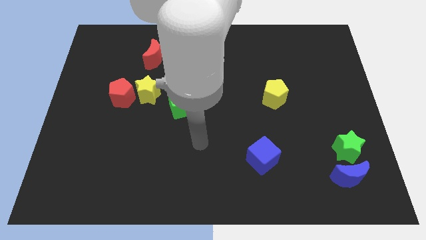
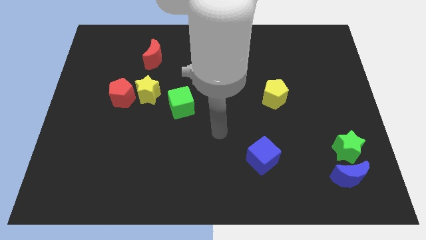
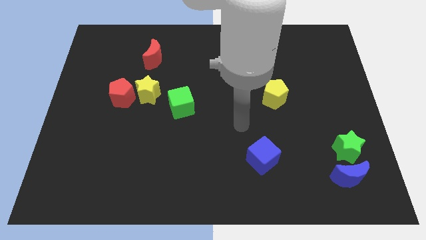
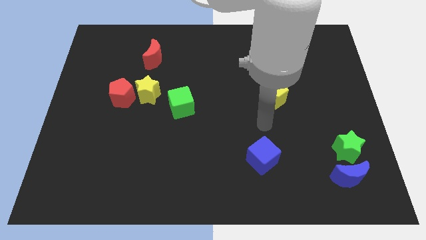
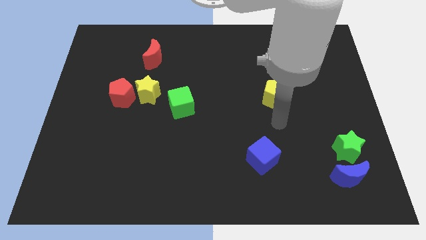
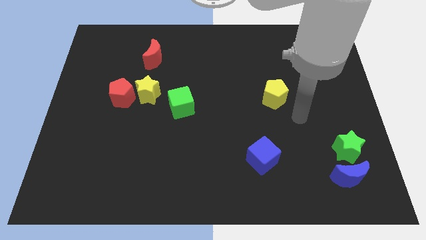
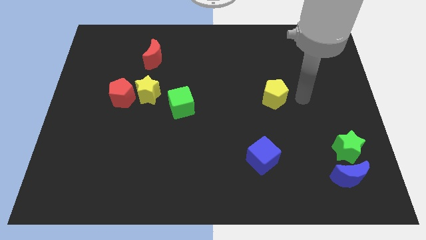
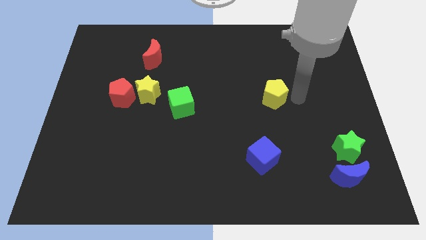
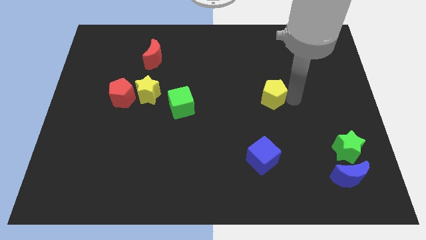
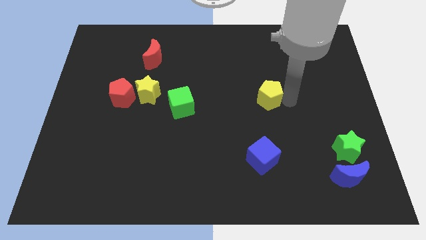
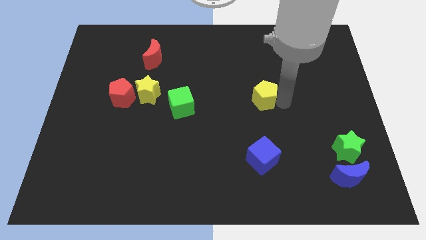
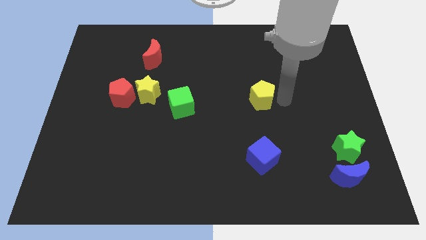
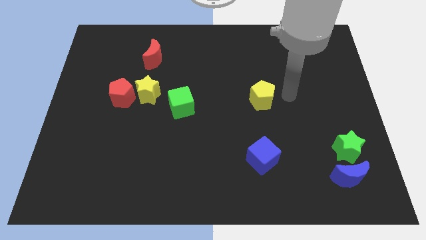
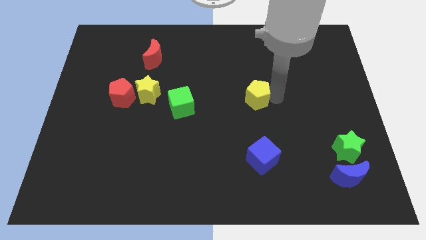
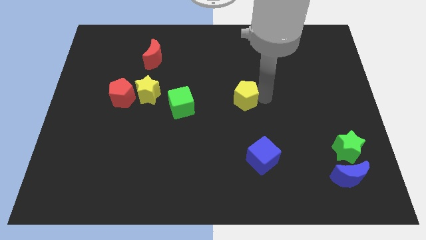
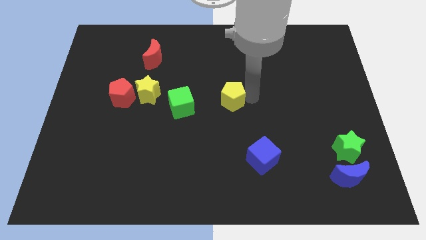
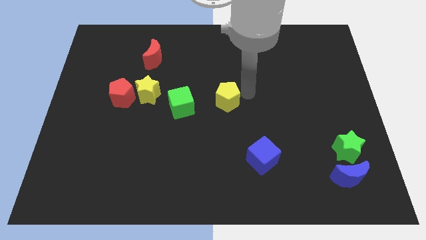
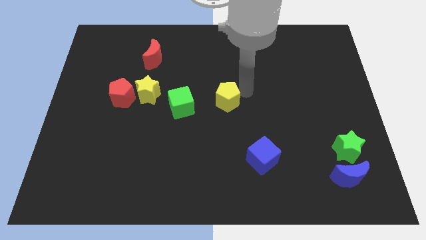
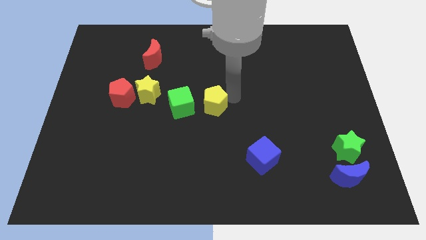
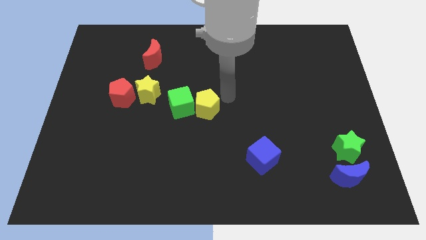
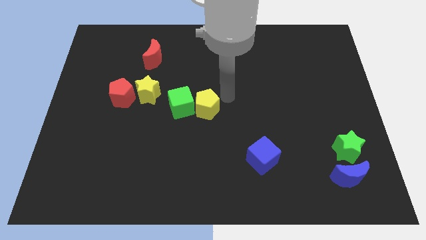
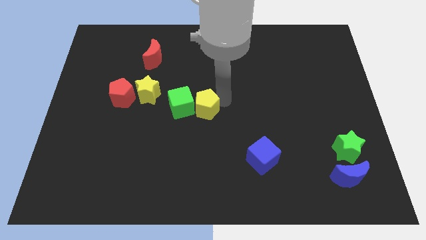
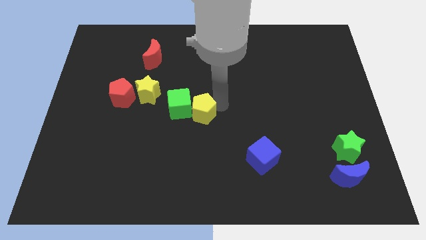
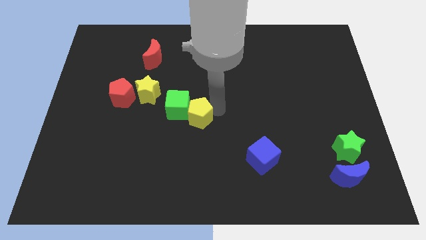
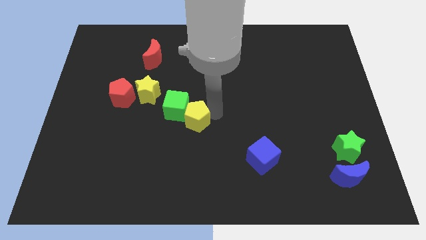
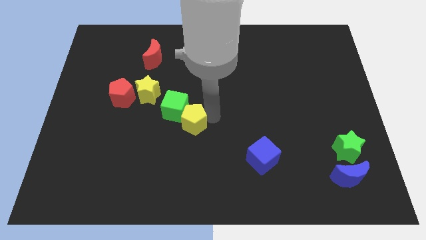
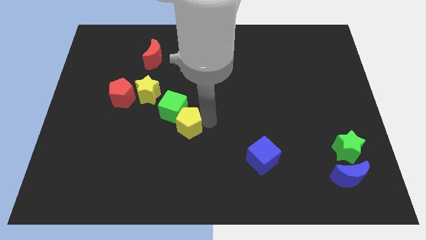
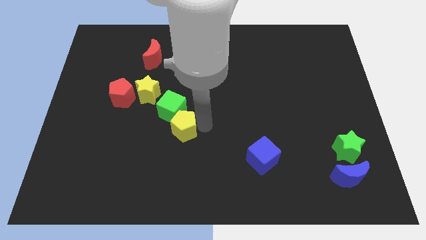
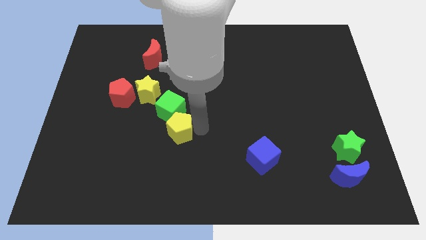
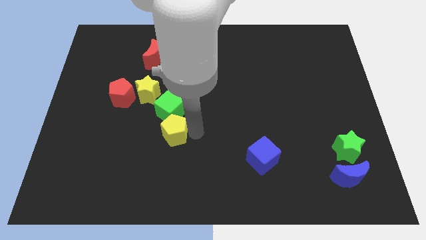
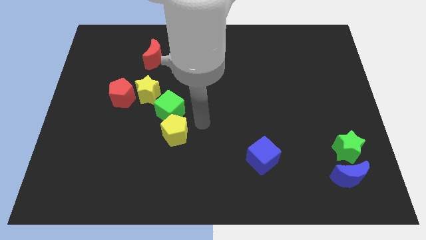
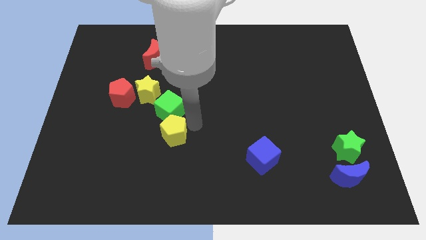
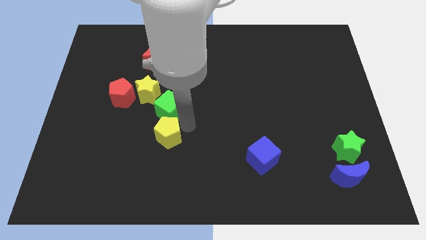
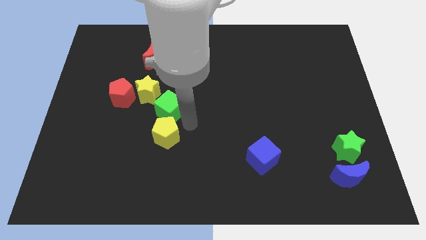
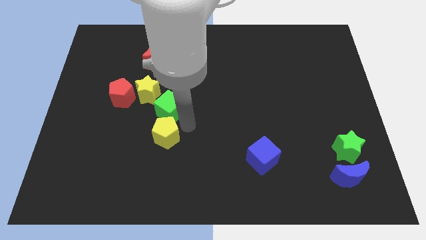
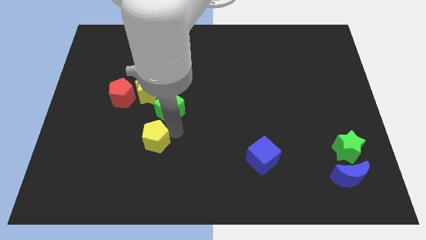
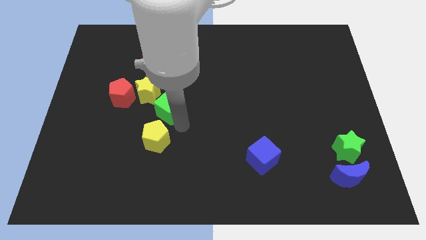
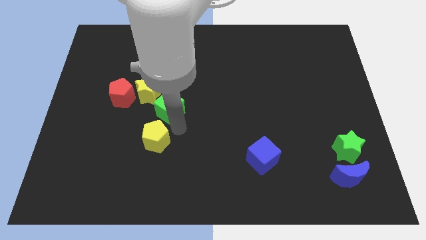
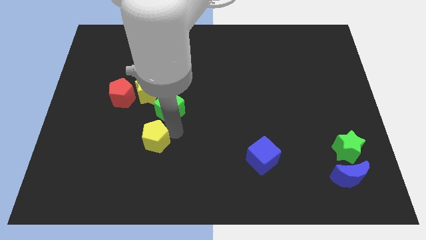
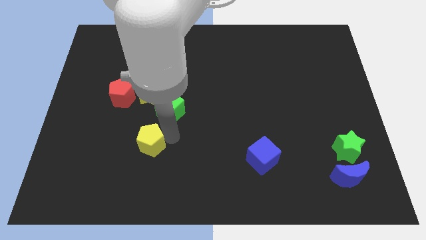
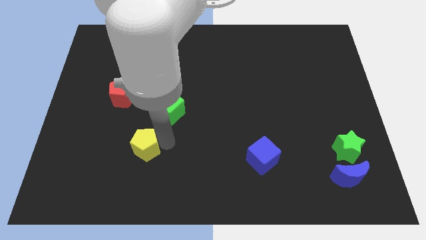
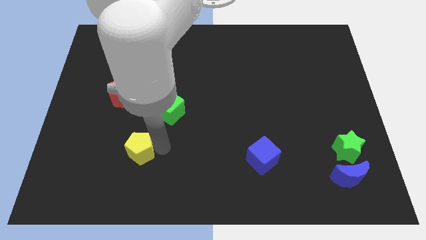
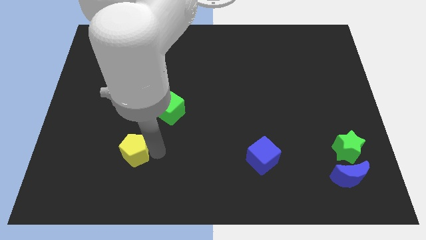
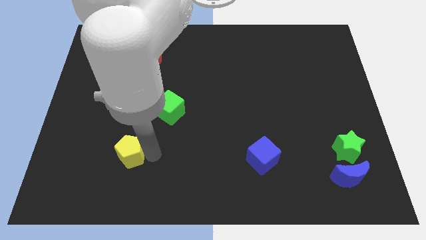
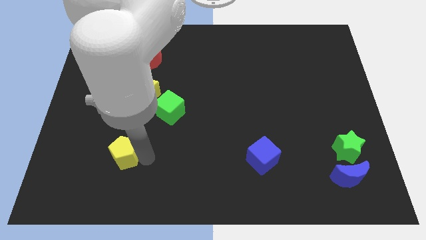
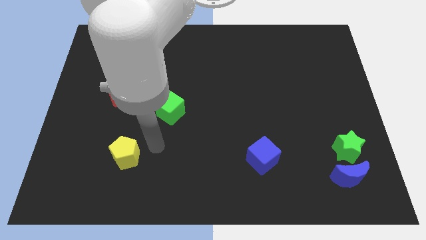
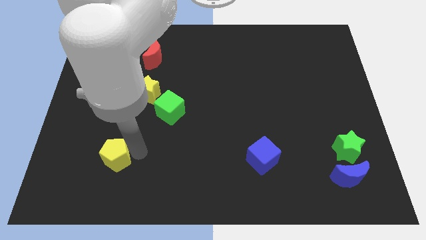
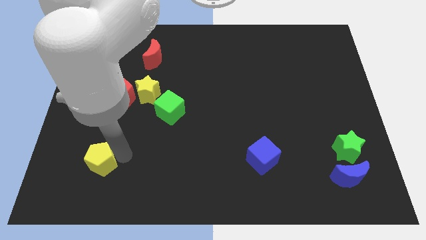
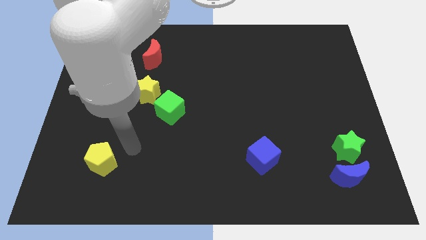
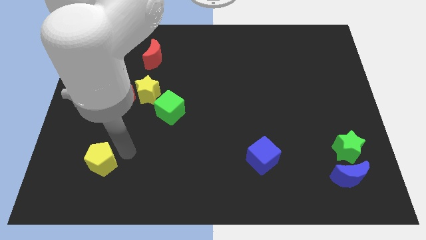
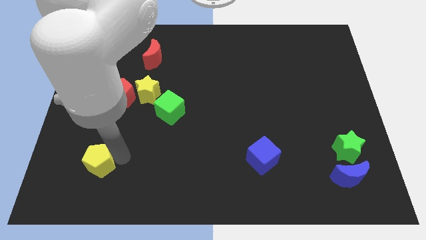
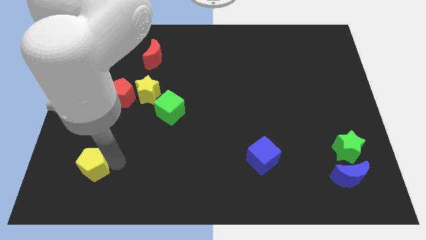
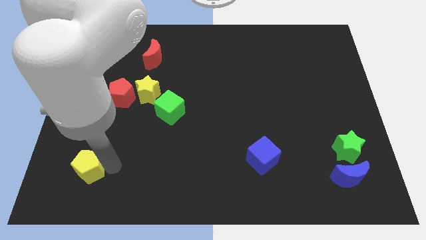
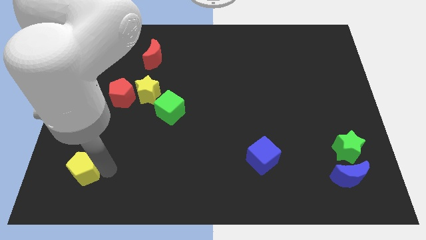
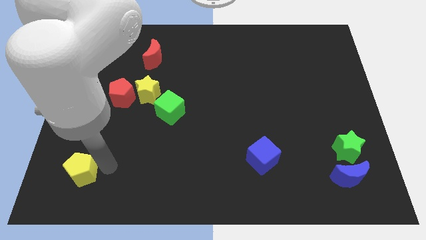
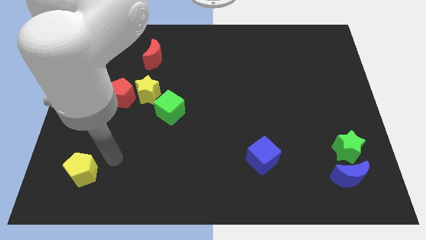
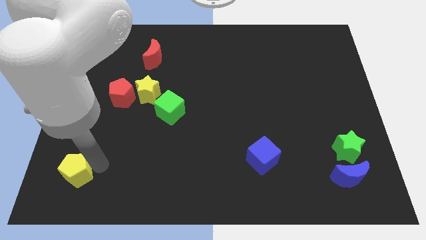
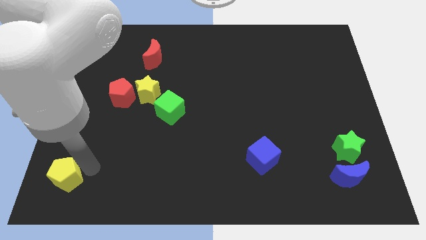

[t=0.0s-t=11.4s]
slide the yellow pentagon to the lower left corner
